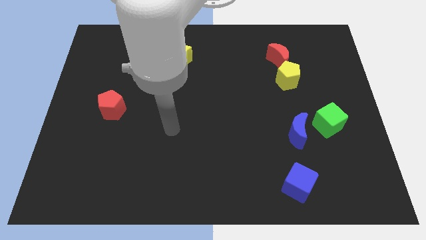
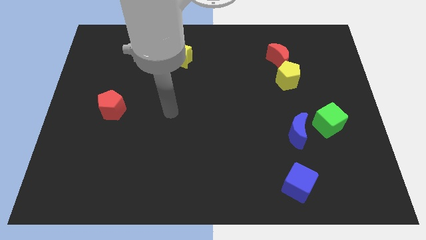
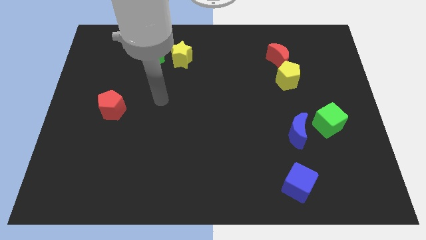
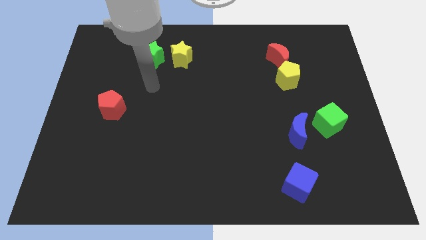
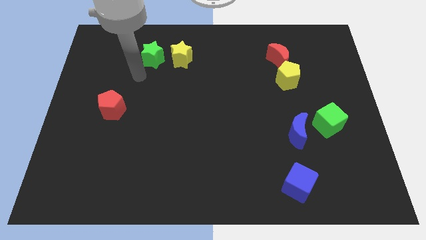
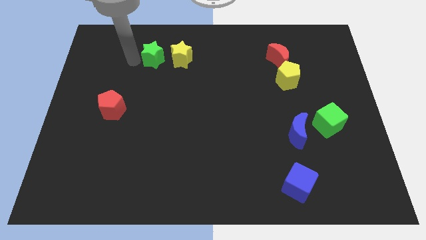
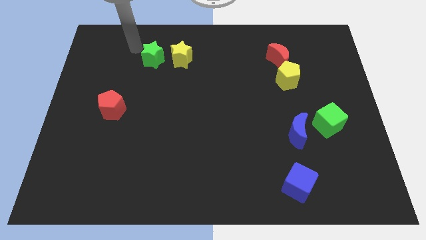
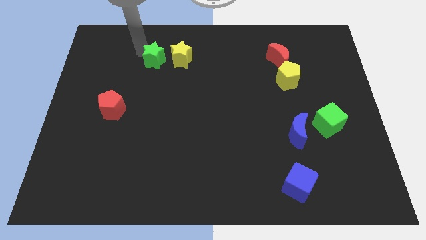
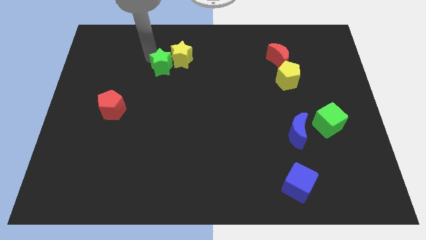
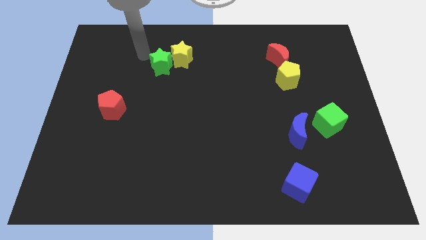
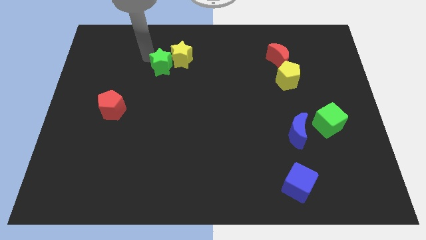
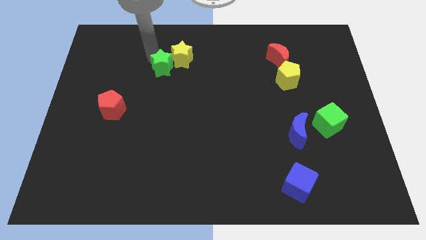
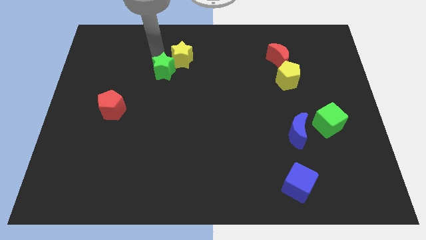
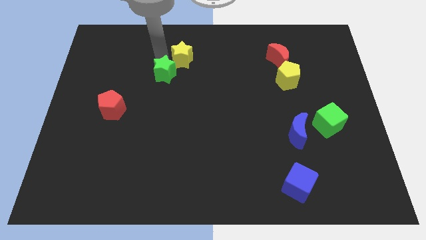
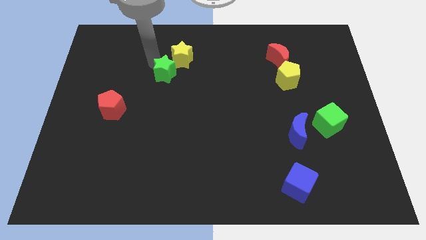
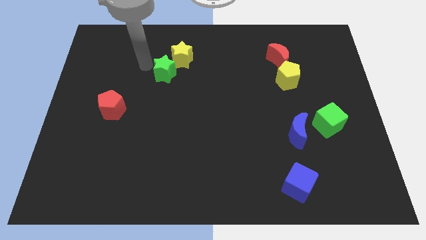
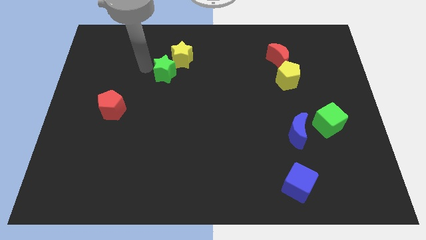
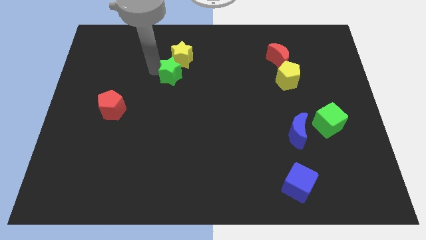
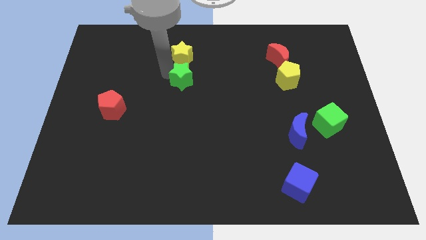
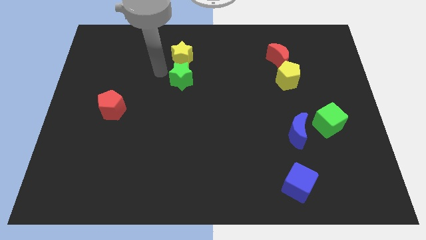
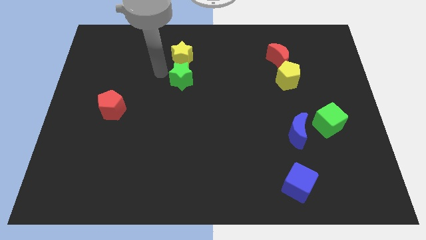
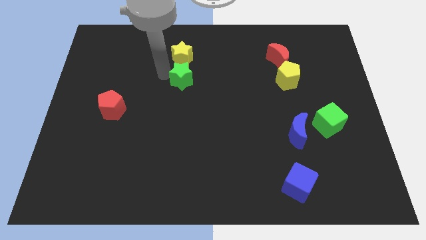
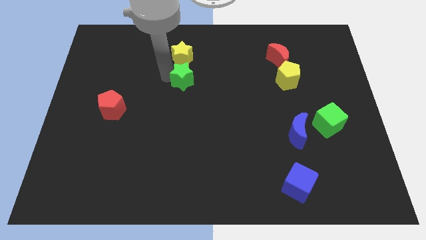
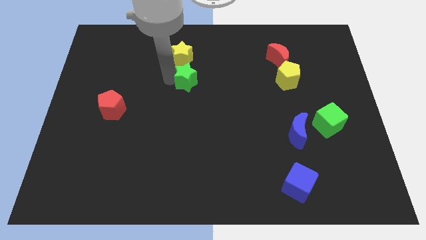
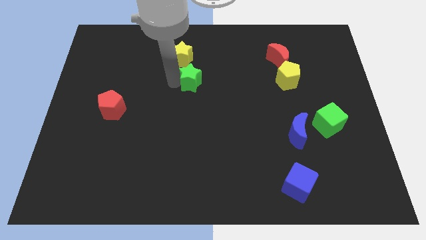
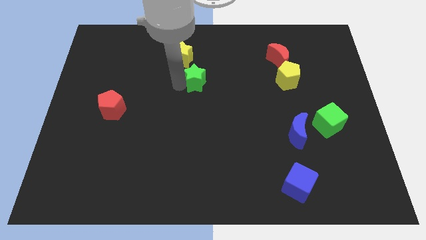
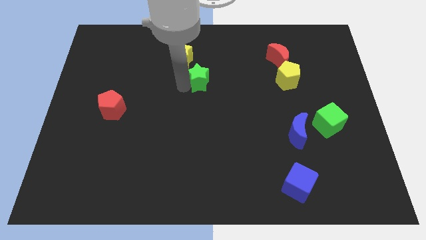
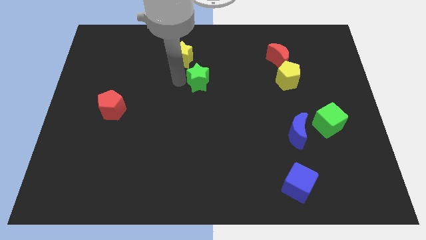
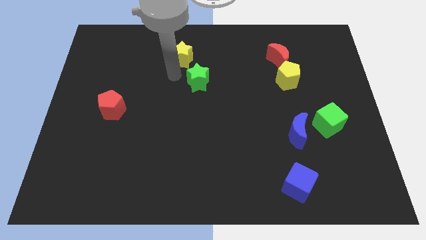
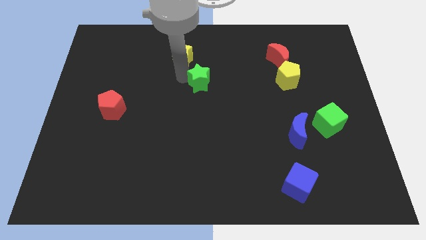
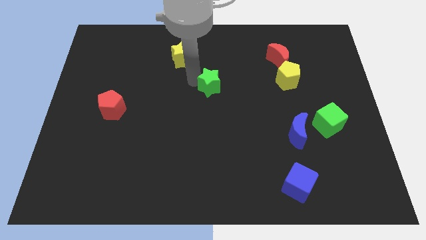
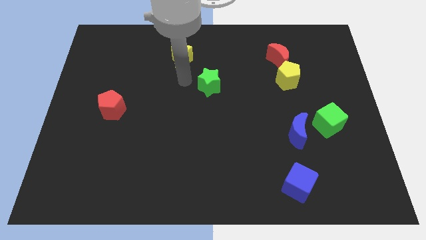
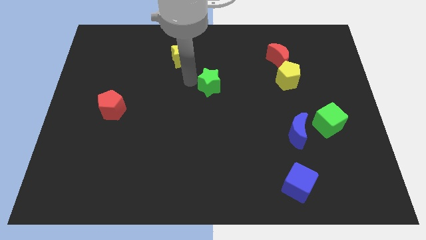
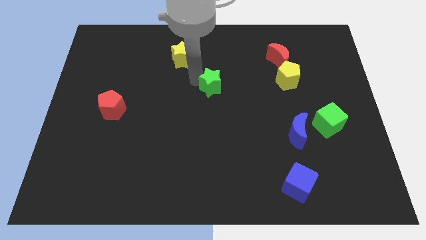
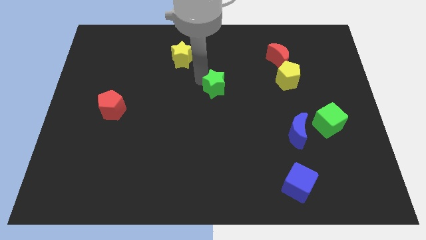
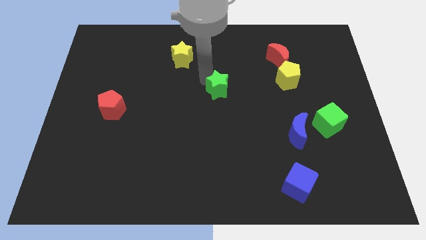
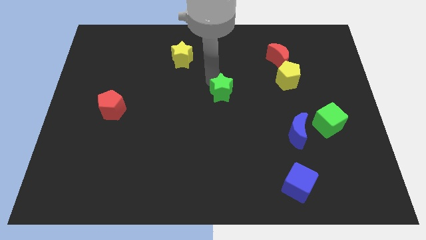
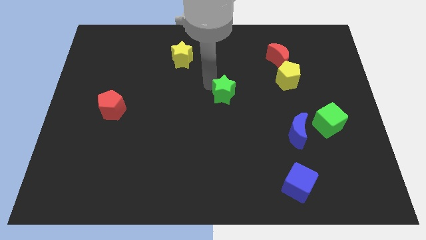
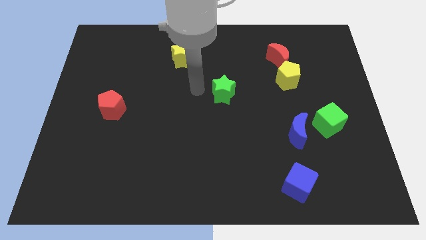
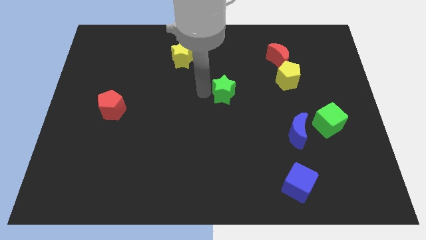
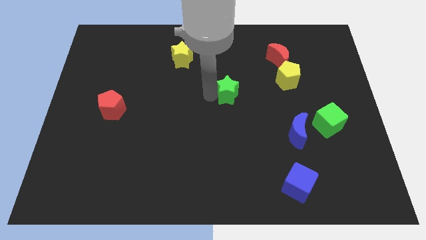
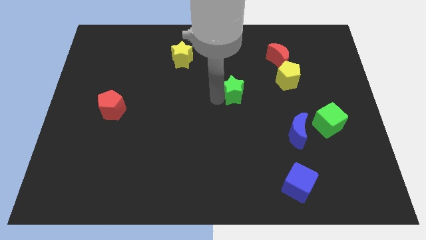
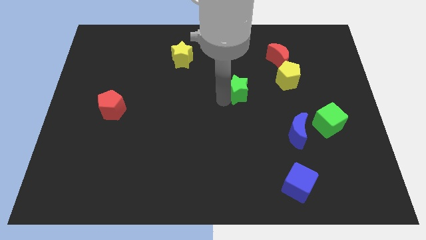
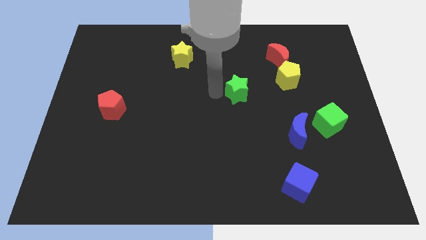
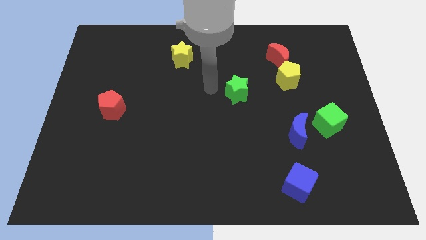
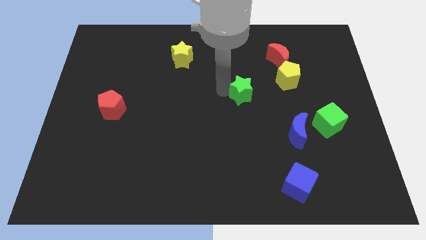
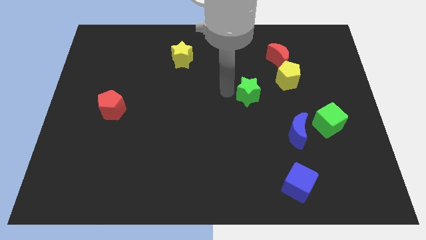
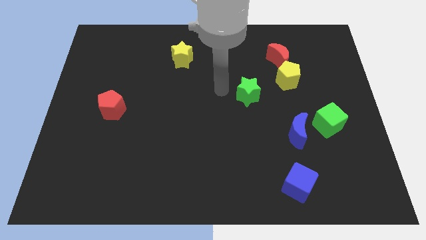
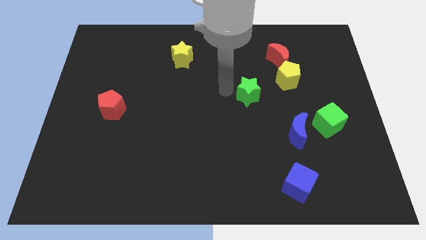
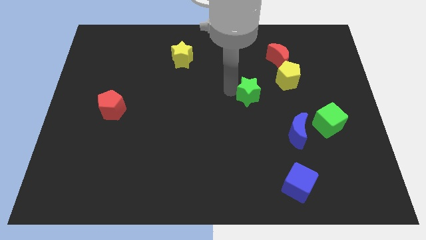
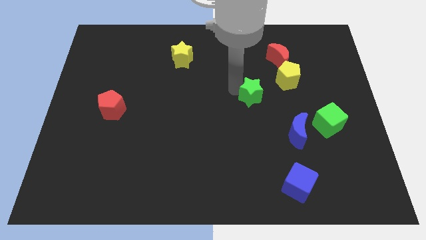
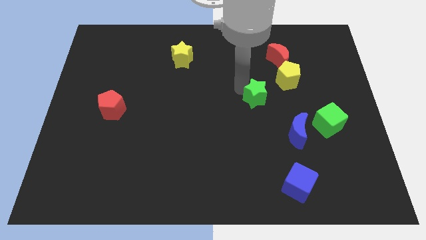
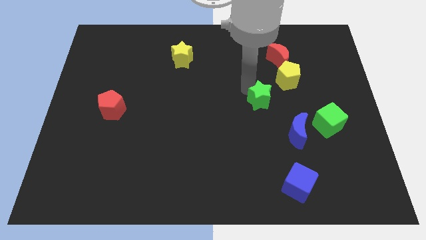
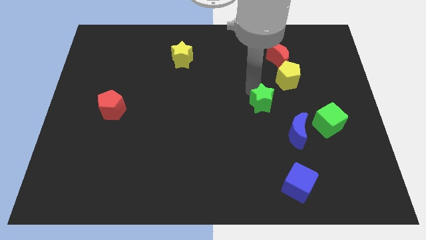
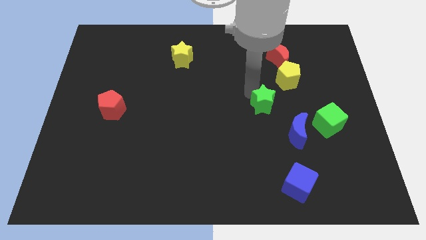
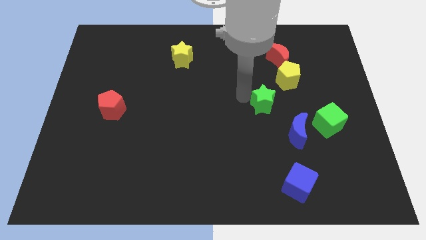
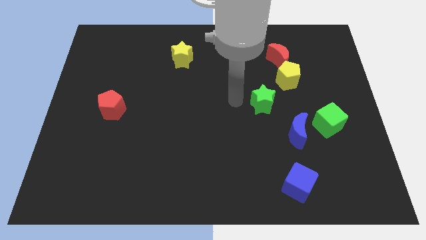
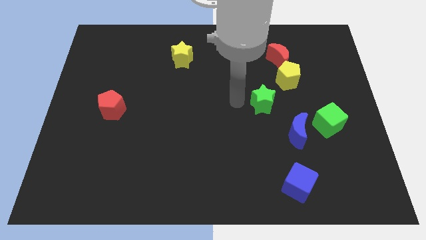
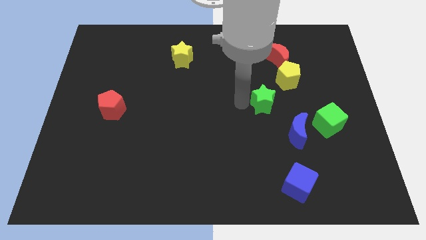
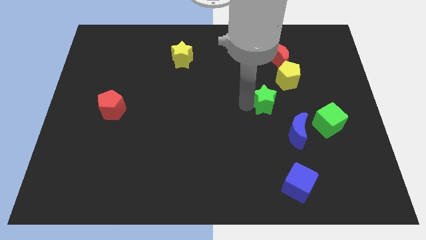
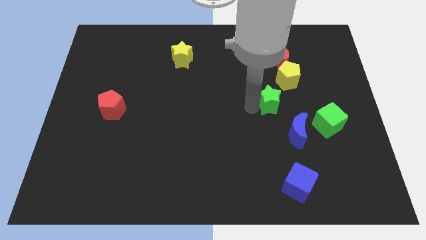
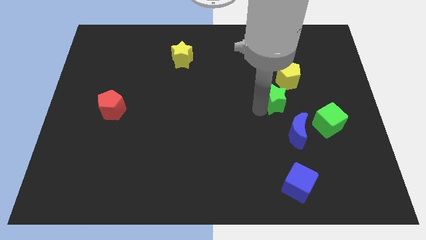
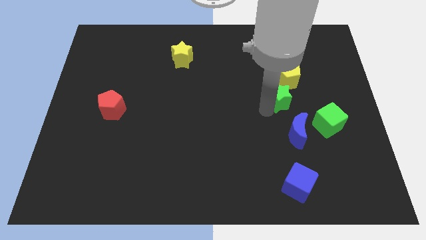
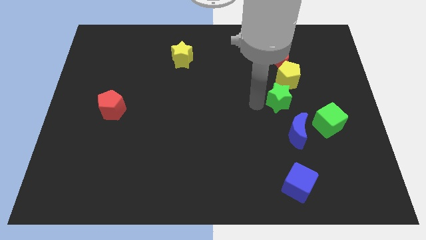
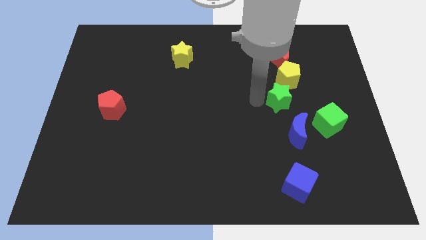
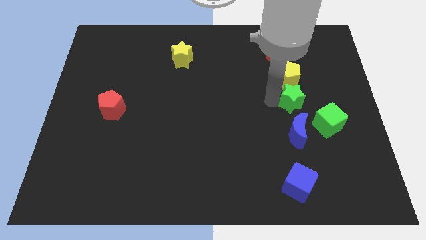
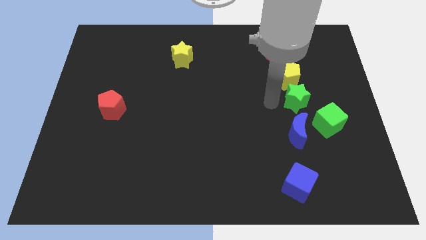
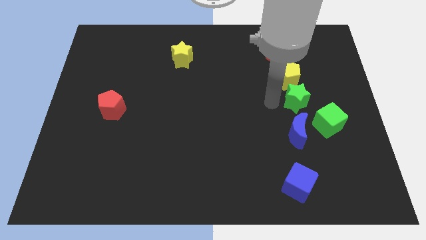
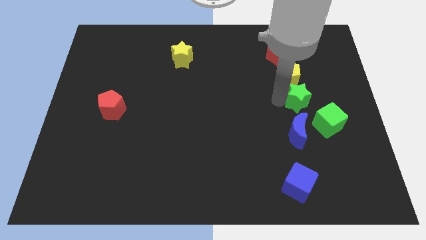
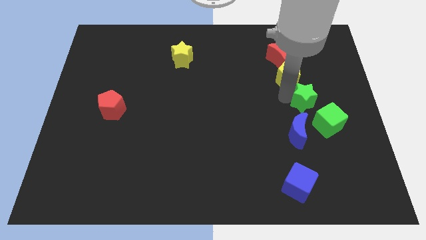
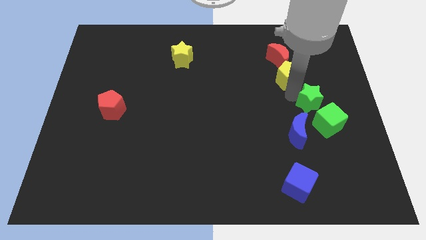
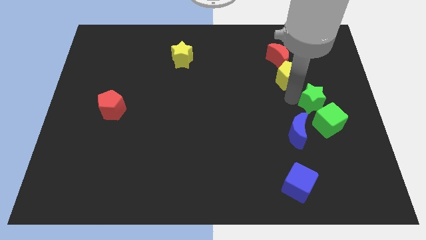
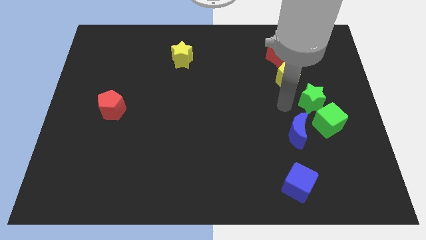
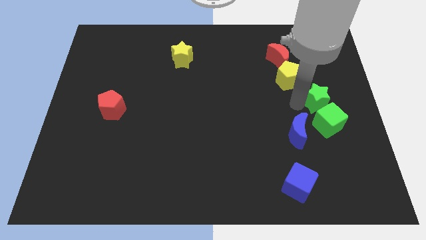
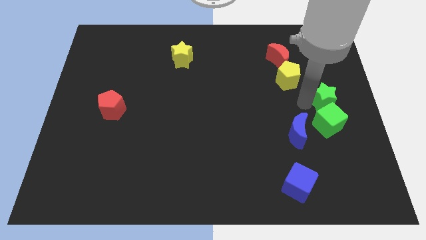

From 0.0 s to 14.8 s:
slide the green star to the center right
